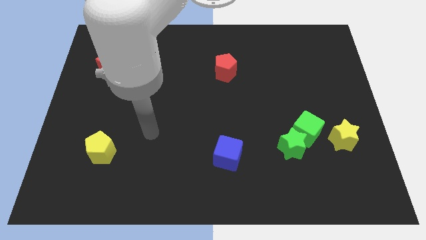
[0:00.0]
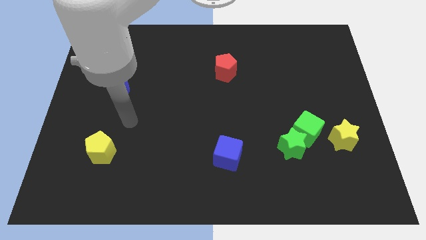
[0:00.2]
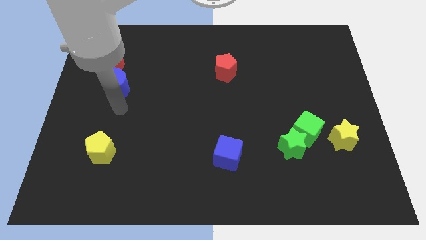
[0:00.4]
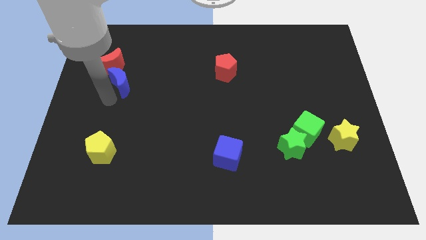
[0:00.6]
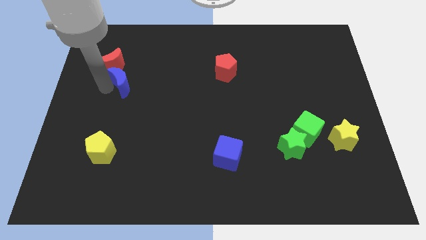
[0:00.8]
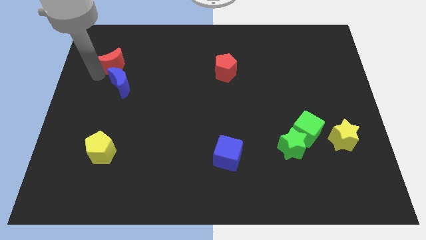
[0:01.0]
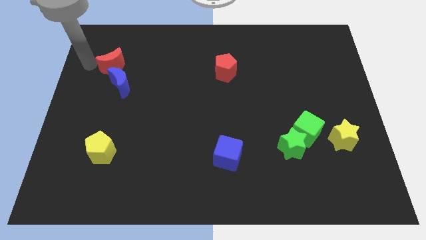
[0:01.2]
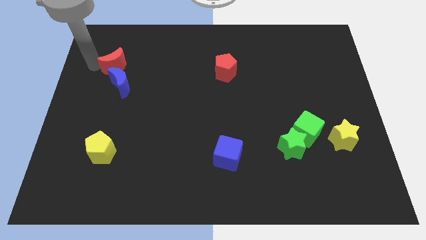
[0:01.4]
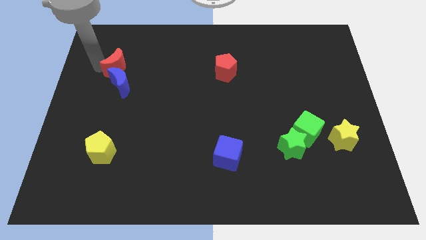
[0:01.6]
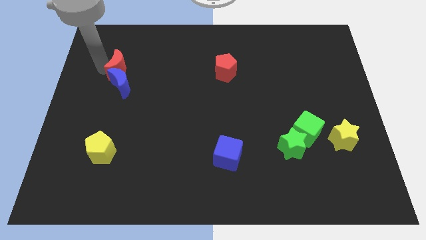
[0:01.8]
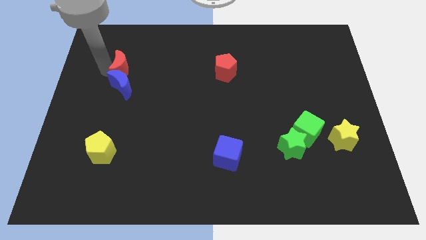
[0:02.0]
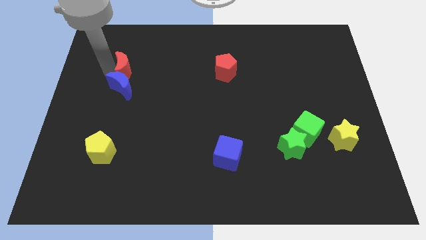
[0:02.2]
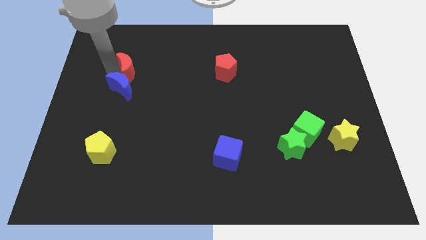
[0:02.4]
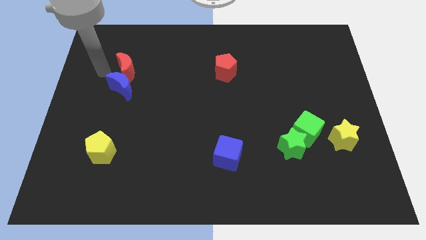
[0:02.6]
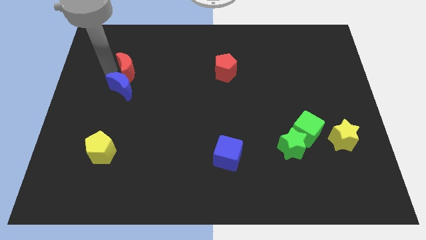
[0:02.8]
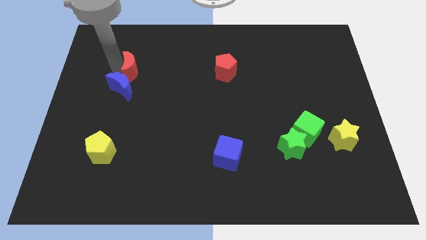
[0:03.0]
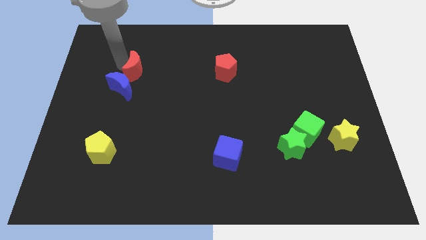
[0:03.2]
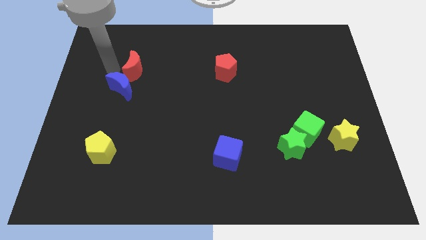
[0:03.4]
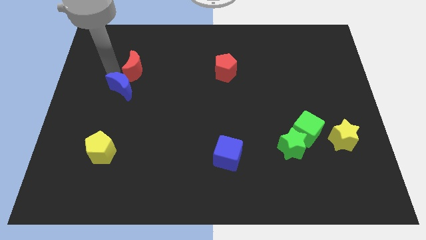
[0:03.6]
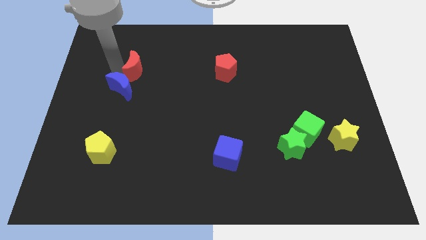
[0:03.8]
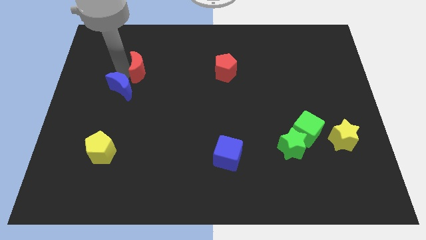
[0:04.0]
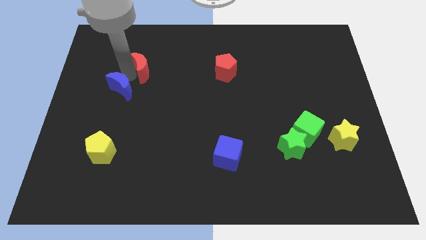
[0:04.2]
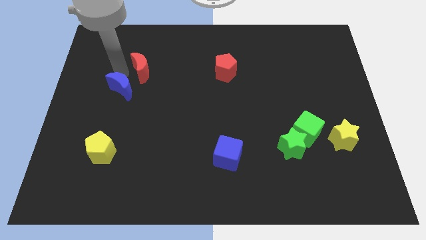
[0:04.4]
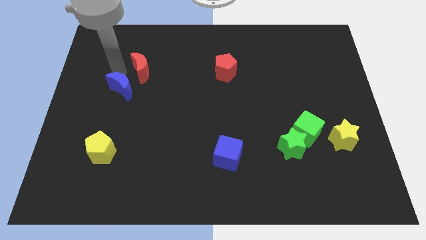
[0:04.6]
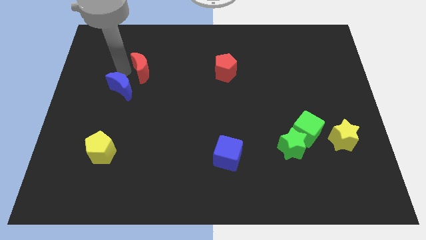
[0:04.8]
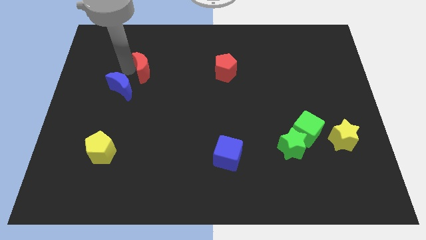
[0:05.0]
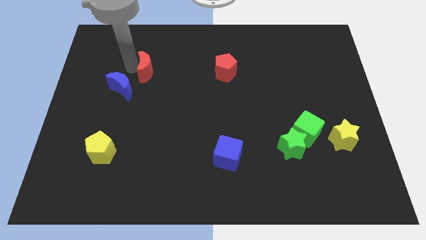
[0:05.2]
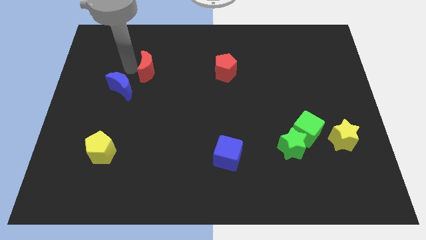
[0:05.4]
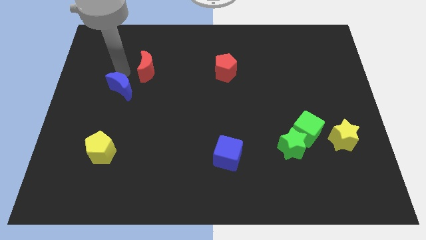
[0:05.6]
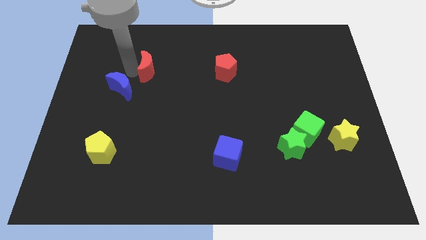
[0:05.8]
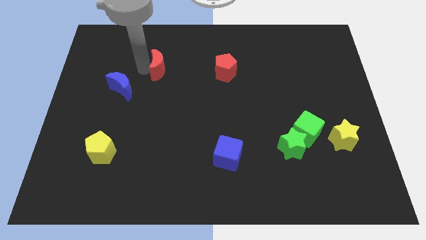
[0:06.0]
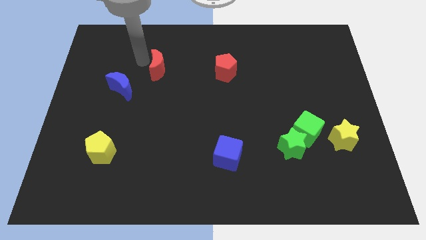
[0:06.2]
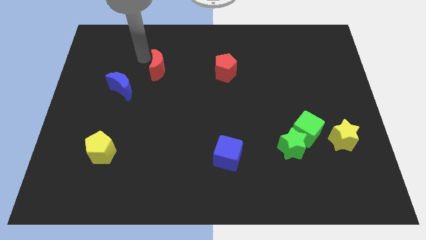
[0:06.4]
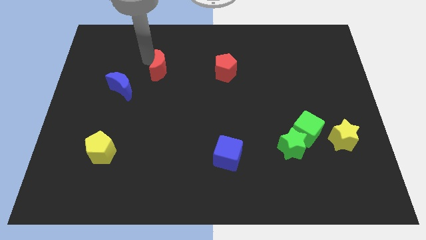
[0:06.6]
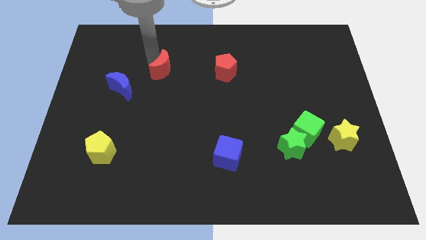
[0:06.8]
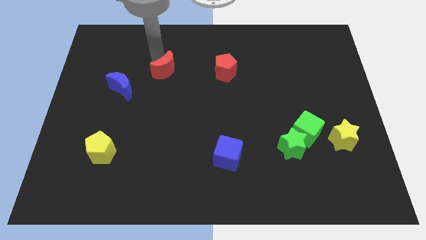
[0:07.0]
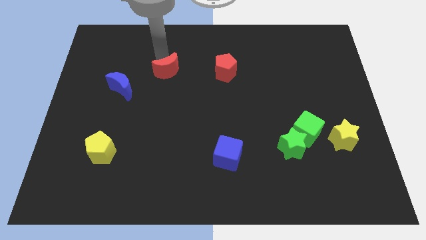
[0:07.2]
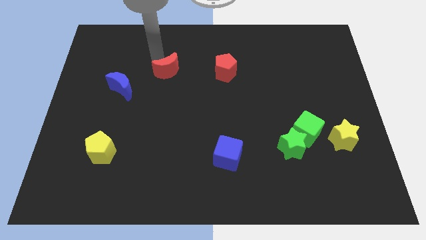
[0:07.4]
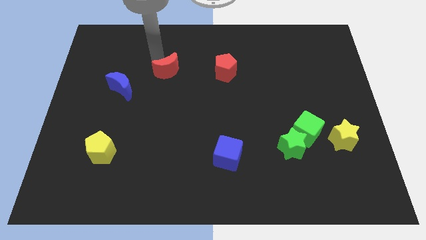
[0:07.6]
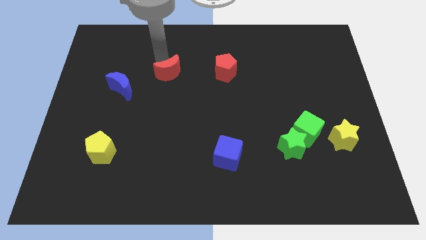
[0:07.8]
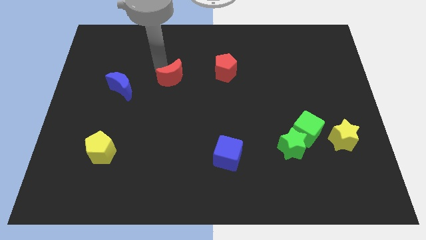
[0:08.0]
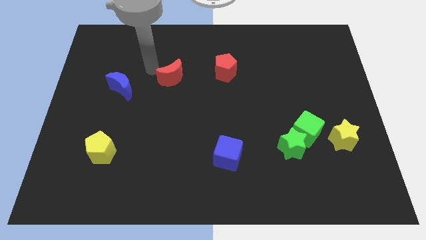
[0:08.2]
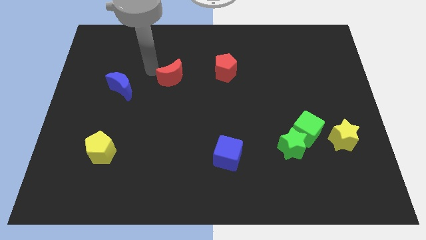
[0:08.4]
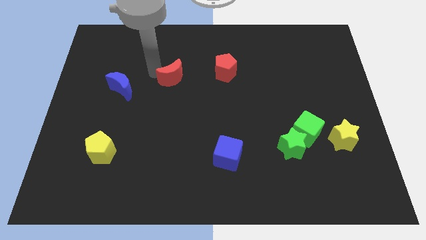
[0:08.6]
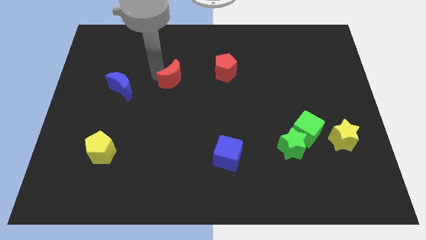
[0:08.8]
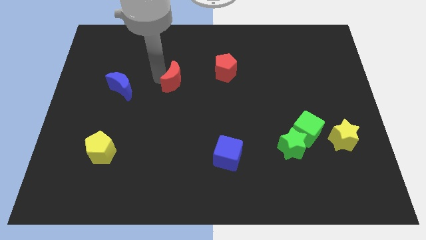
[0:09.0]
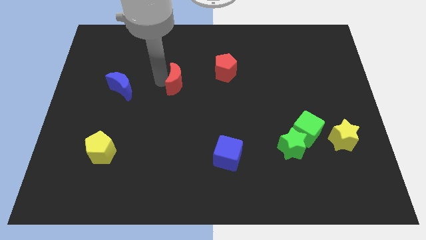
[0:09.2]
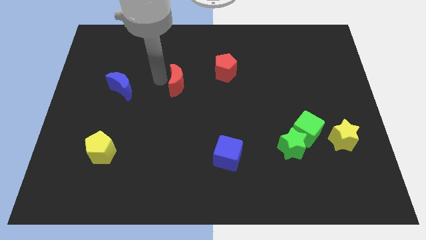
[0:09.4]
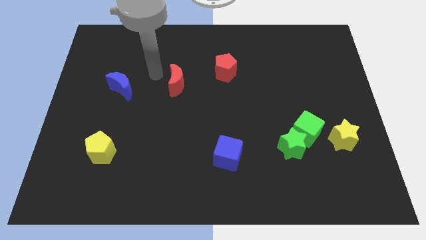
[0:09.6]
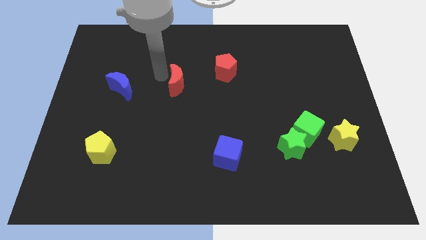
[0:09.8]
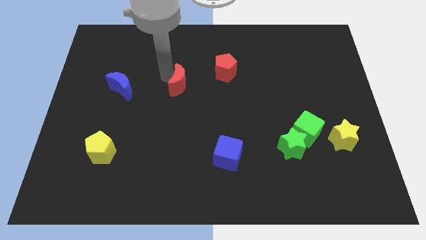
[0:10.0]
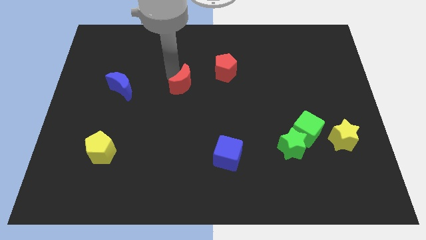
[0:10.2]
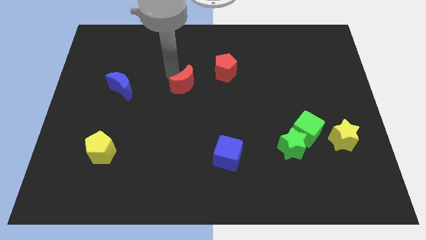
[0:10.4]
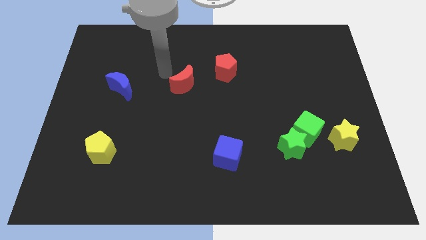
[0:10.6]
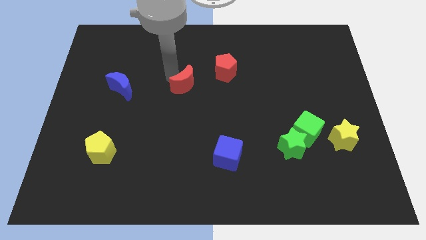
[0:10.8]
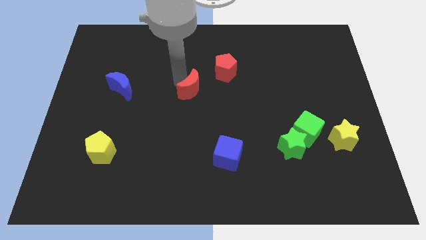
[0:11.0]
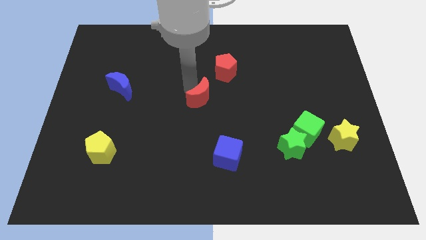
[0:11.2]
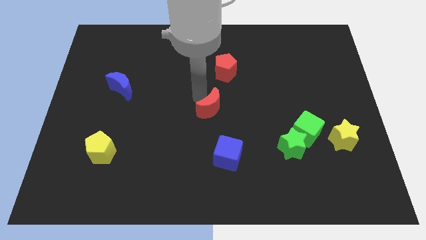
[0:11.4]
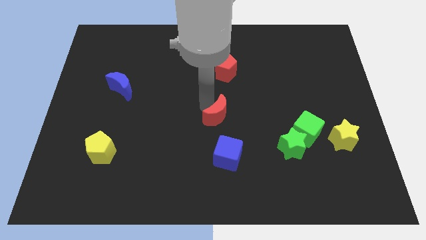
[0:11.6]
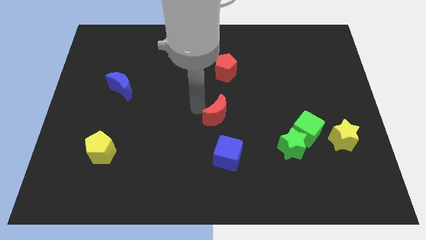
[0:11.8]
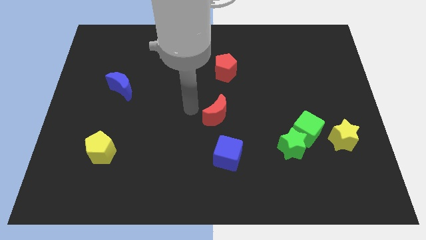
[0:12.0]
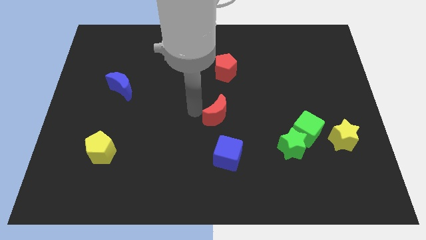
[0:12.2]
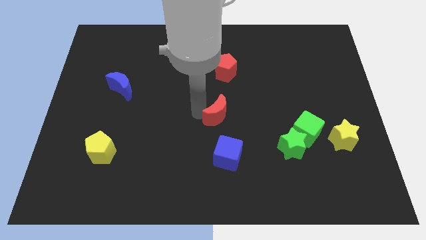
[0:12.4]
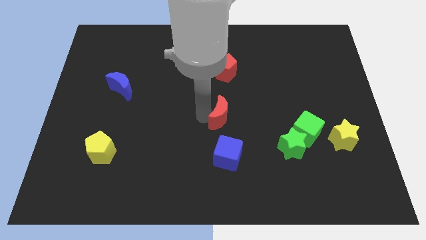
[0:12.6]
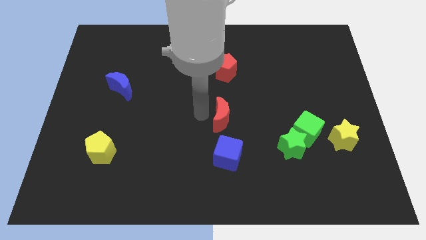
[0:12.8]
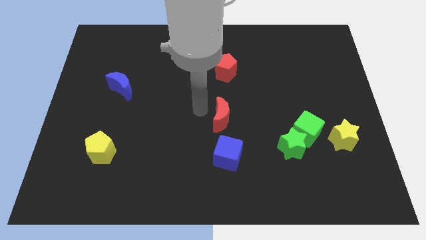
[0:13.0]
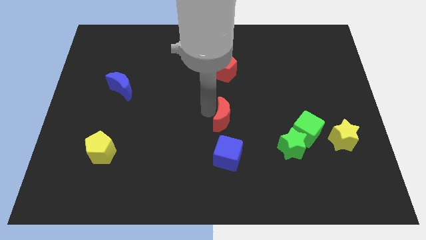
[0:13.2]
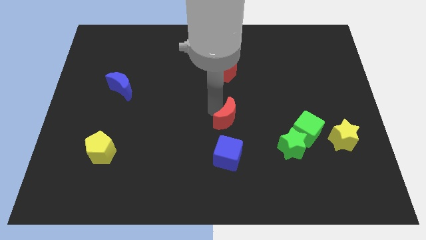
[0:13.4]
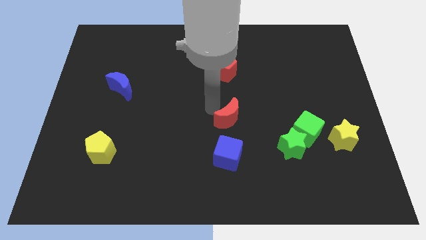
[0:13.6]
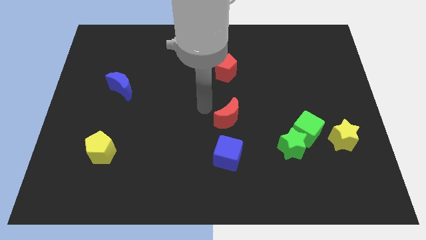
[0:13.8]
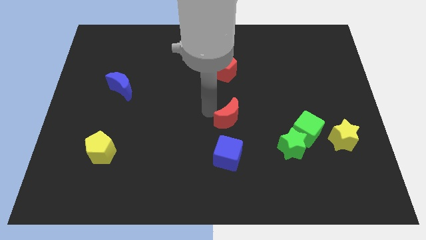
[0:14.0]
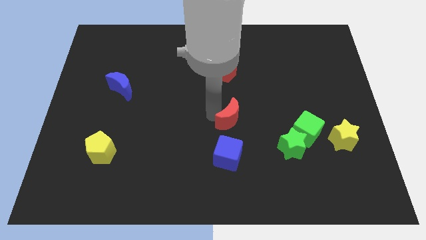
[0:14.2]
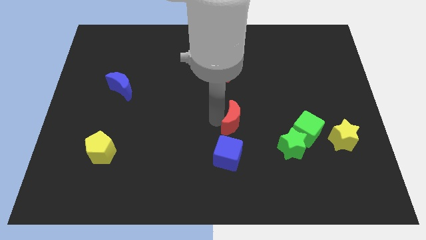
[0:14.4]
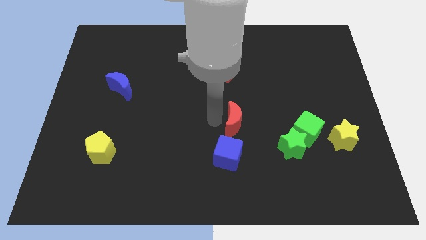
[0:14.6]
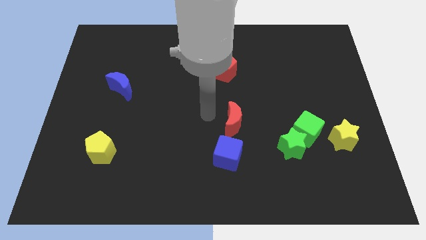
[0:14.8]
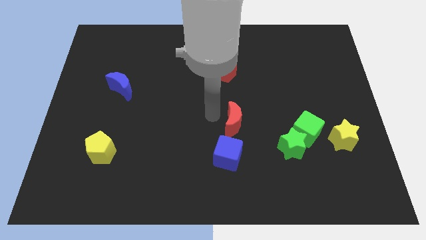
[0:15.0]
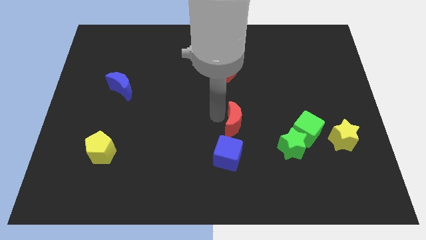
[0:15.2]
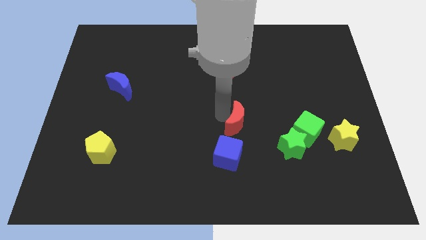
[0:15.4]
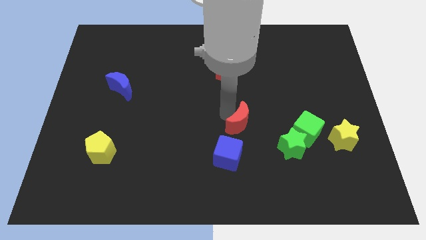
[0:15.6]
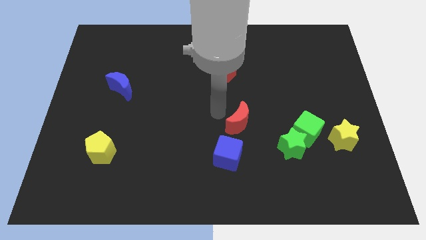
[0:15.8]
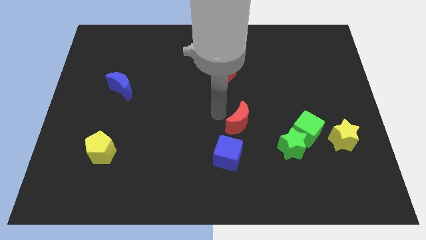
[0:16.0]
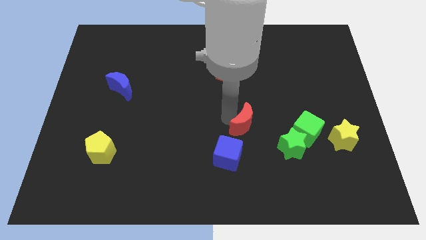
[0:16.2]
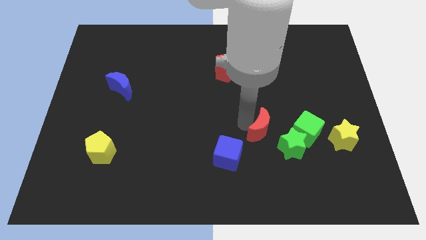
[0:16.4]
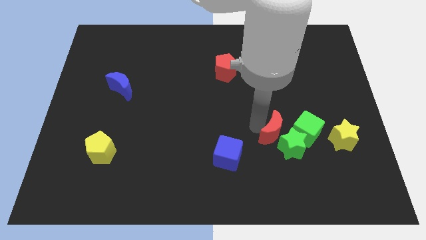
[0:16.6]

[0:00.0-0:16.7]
move the red moon to the green star
